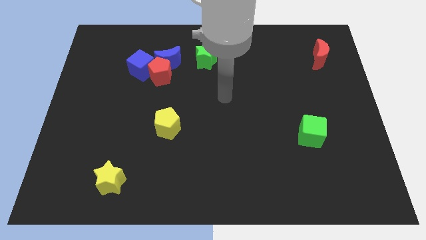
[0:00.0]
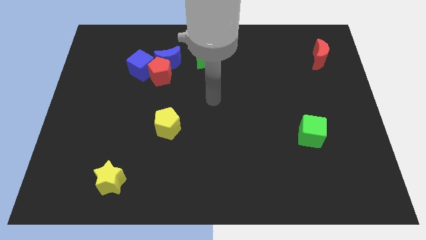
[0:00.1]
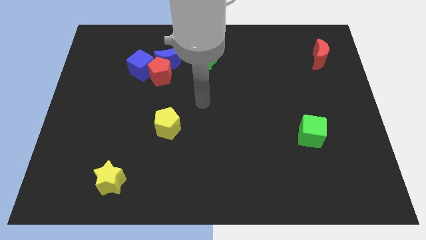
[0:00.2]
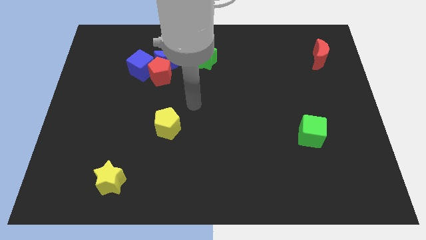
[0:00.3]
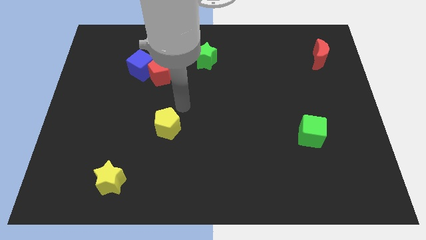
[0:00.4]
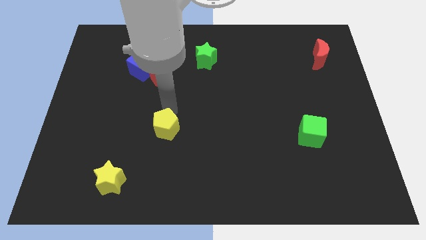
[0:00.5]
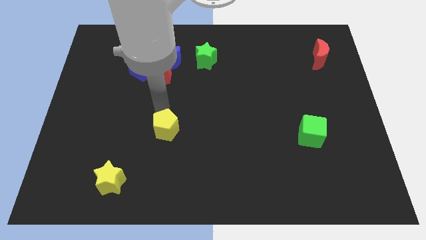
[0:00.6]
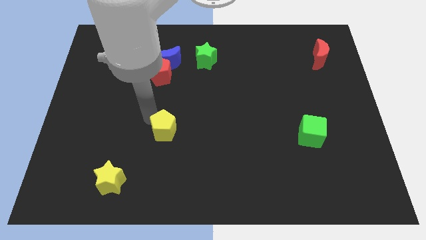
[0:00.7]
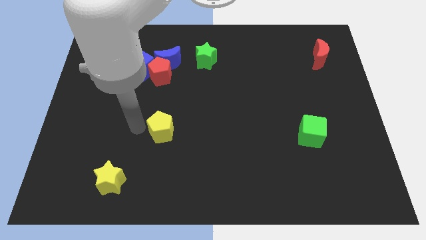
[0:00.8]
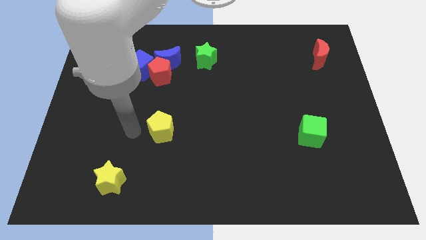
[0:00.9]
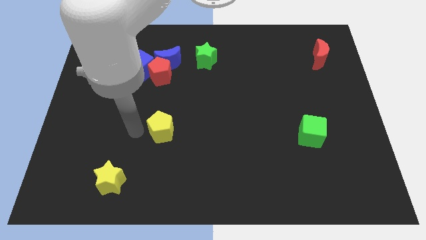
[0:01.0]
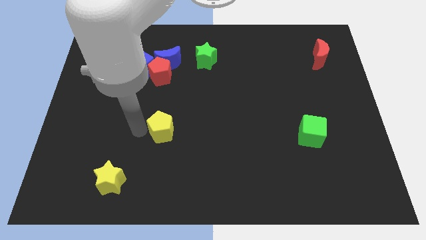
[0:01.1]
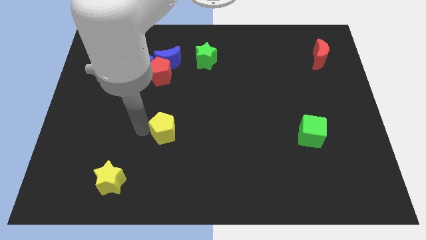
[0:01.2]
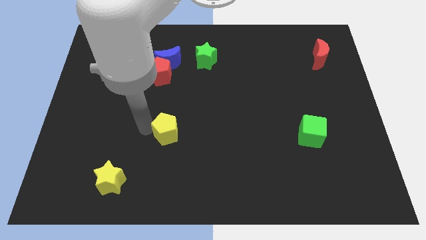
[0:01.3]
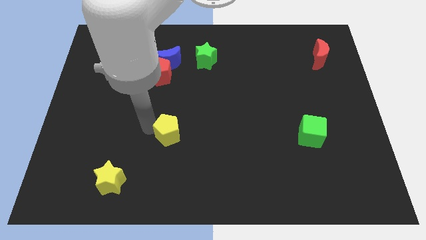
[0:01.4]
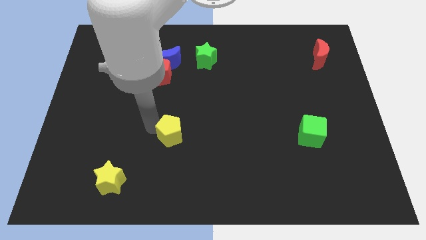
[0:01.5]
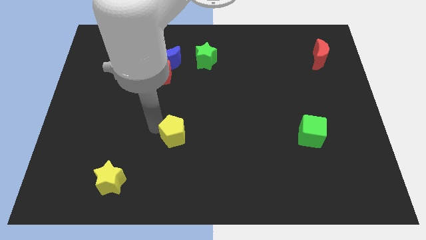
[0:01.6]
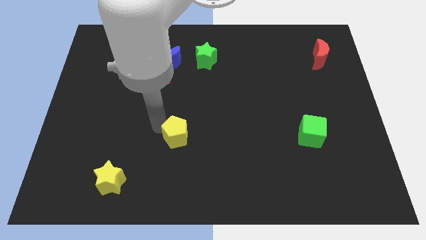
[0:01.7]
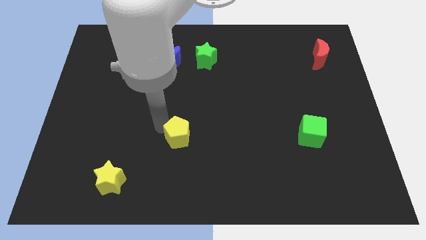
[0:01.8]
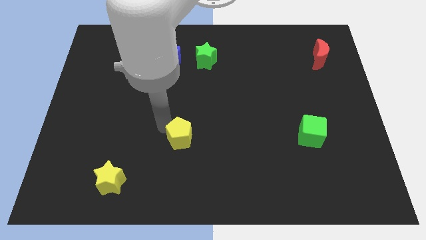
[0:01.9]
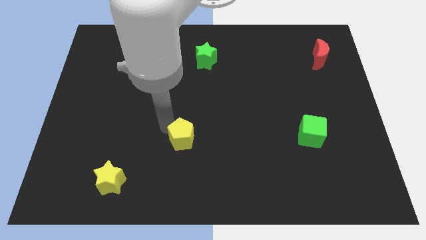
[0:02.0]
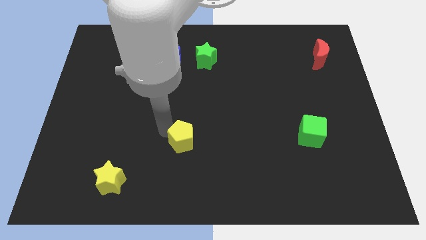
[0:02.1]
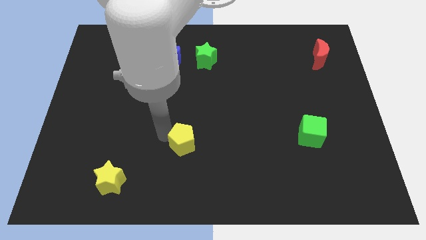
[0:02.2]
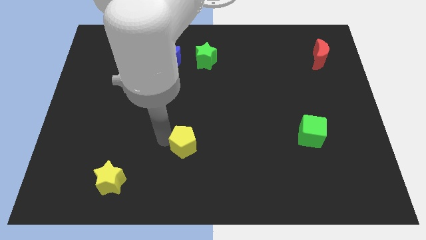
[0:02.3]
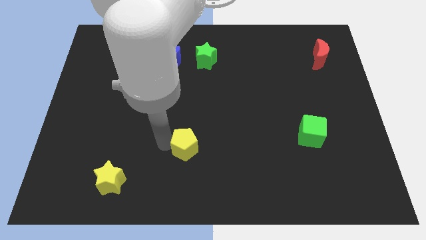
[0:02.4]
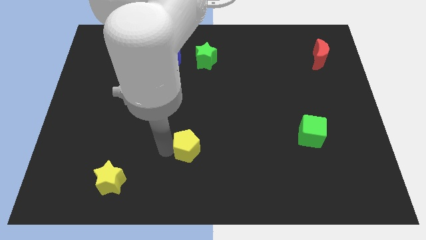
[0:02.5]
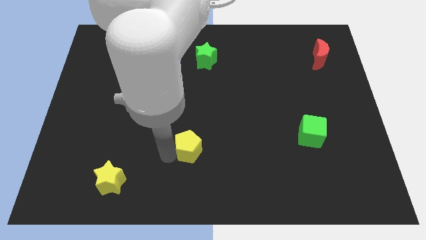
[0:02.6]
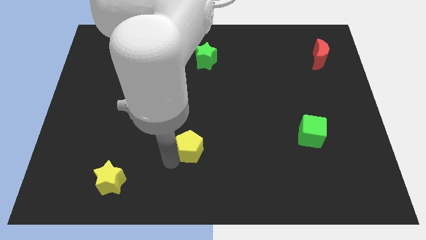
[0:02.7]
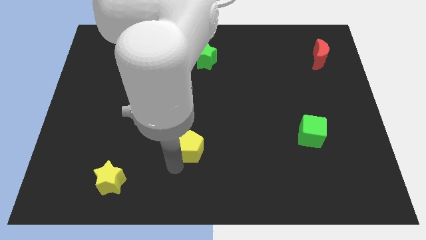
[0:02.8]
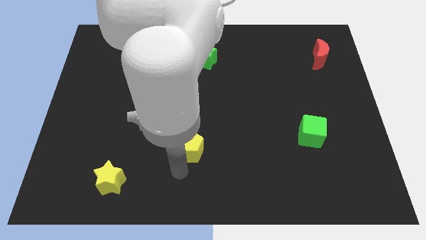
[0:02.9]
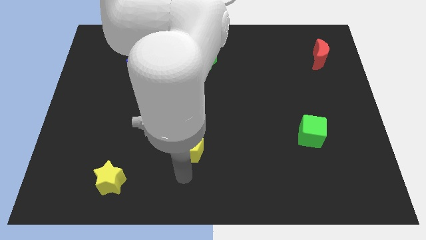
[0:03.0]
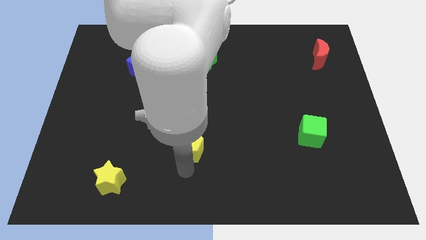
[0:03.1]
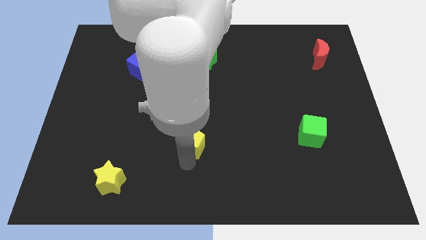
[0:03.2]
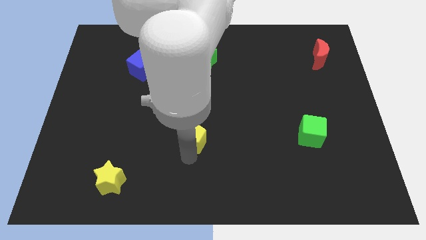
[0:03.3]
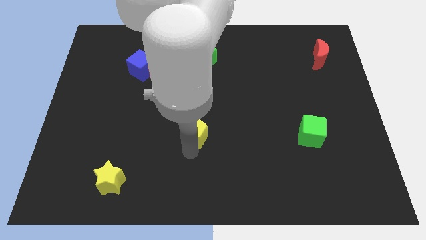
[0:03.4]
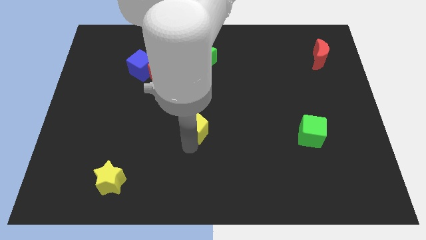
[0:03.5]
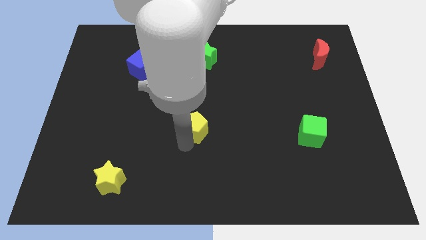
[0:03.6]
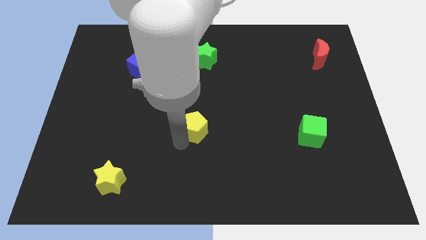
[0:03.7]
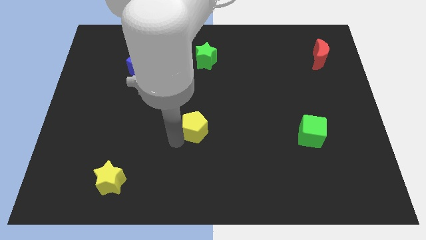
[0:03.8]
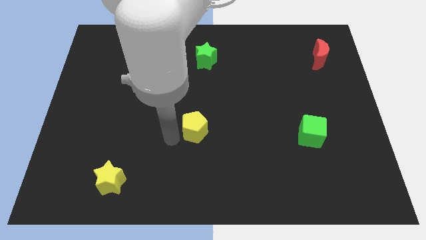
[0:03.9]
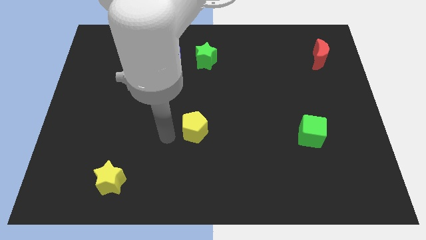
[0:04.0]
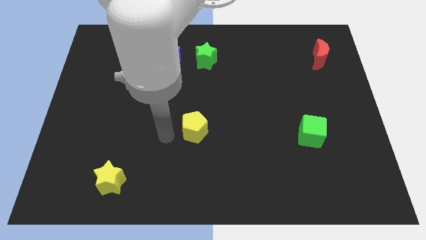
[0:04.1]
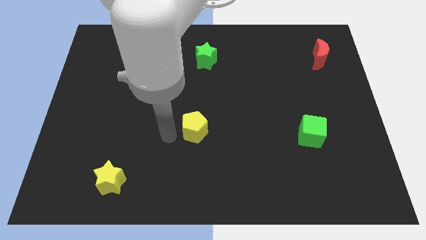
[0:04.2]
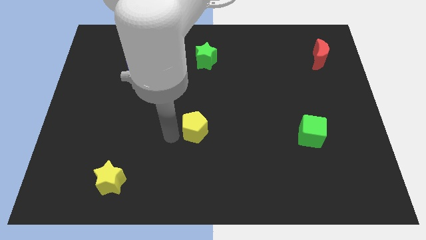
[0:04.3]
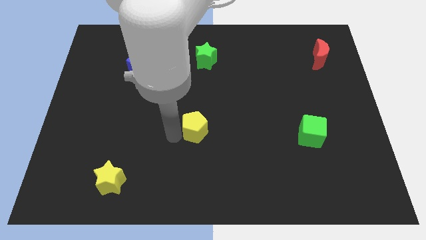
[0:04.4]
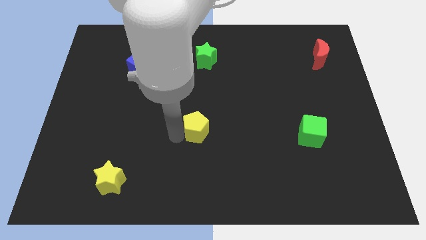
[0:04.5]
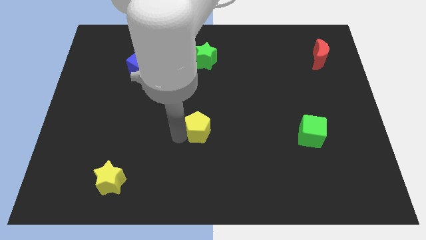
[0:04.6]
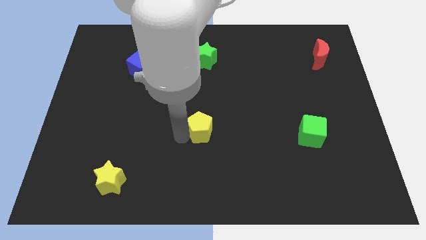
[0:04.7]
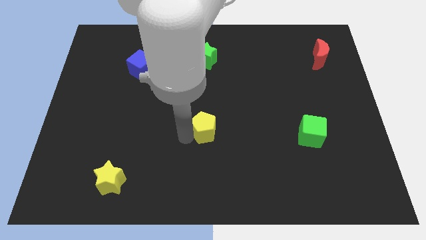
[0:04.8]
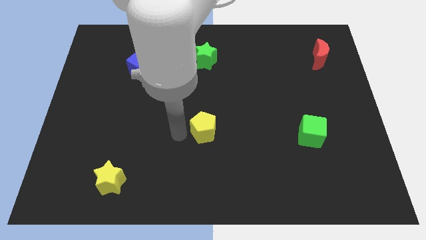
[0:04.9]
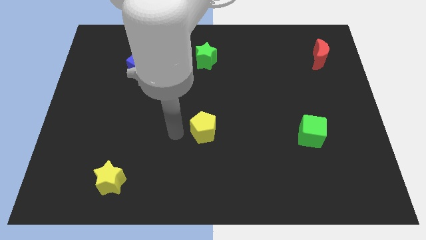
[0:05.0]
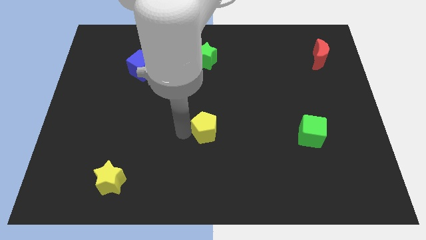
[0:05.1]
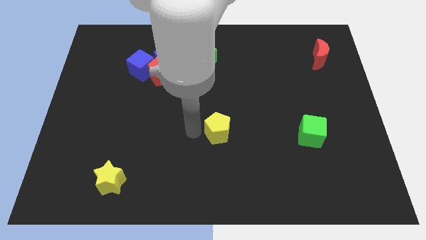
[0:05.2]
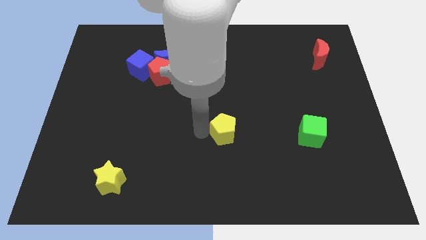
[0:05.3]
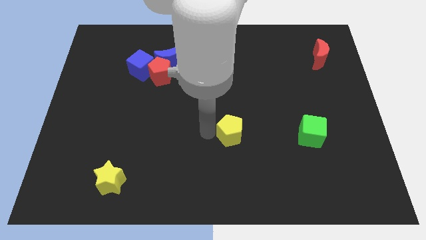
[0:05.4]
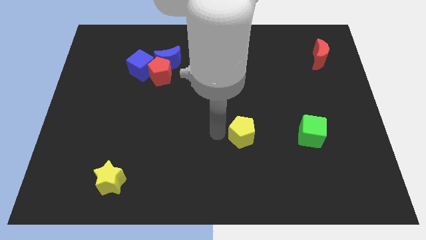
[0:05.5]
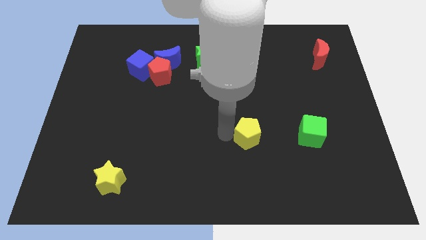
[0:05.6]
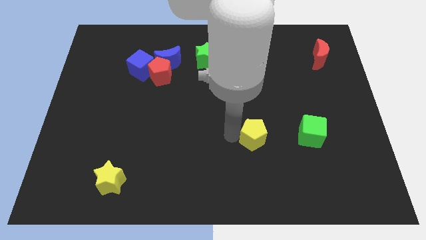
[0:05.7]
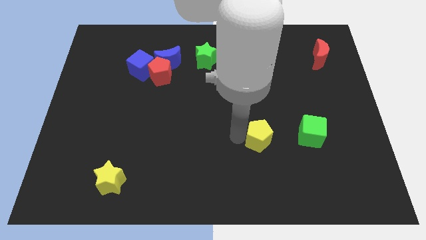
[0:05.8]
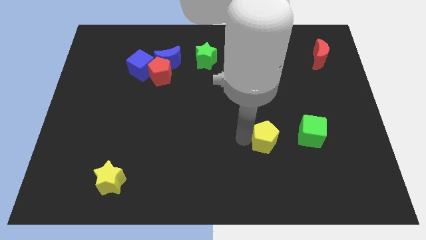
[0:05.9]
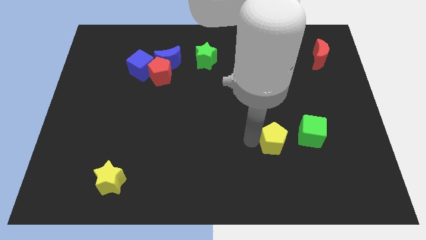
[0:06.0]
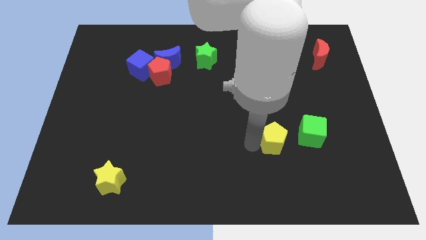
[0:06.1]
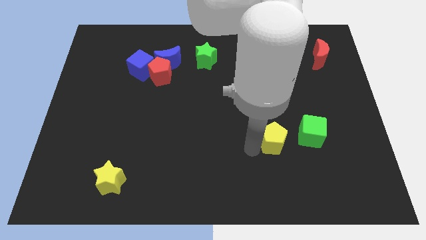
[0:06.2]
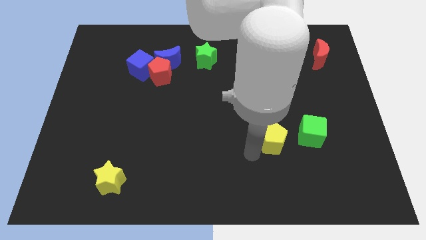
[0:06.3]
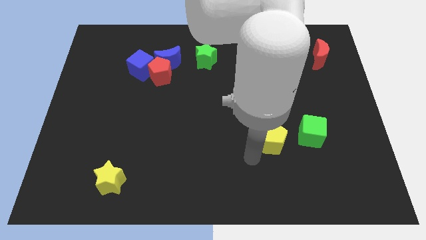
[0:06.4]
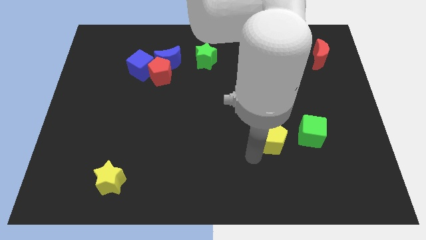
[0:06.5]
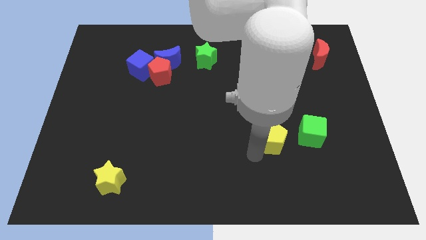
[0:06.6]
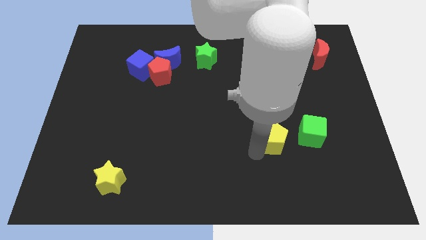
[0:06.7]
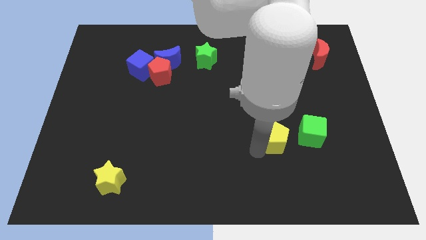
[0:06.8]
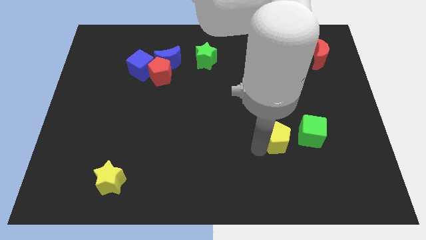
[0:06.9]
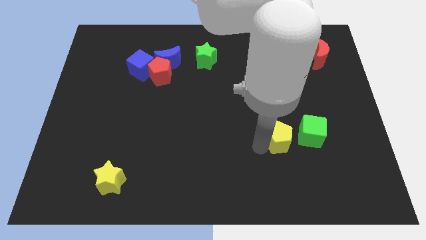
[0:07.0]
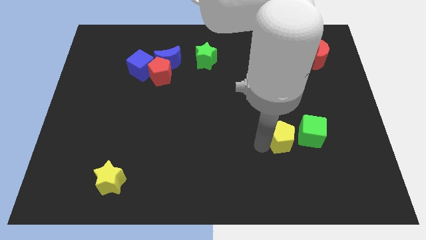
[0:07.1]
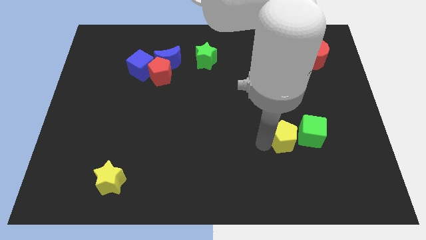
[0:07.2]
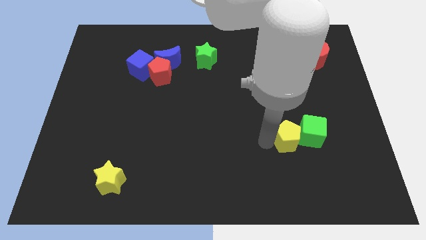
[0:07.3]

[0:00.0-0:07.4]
push the yellow pentagon towards the green cube

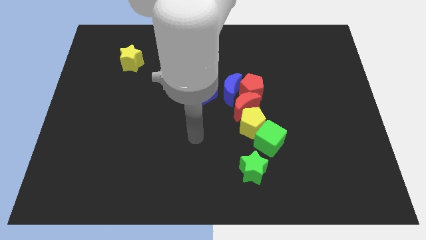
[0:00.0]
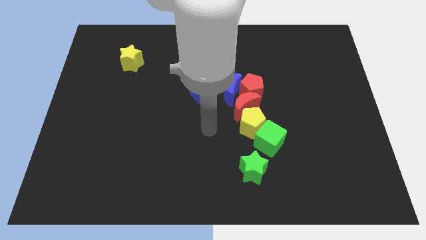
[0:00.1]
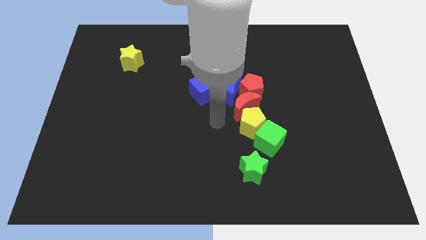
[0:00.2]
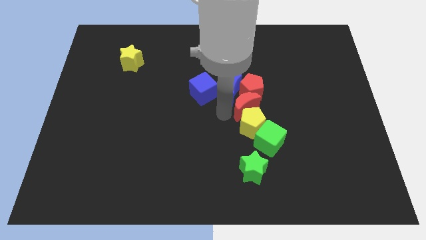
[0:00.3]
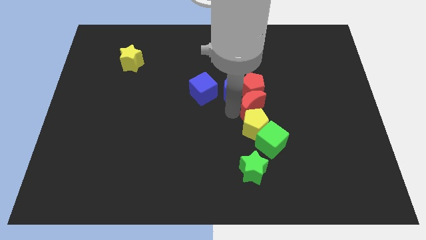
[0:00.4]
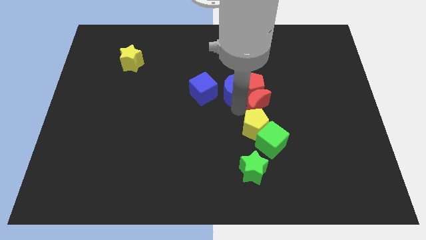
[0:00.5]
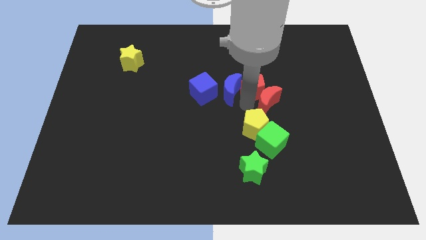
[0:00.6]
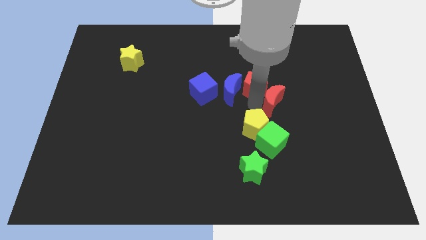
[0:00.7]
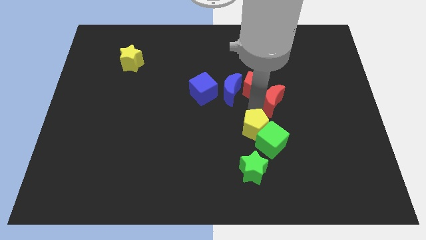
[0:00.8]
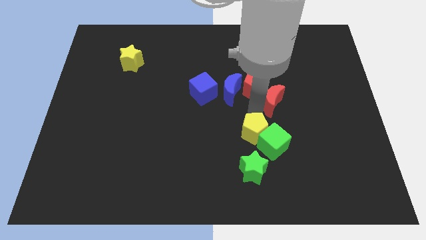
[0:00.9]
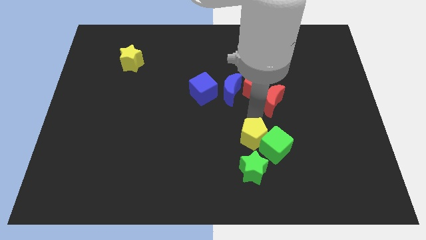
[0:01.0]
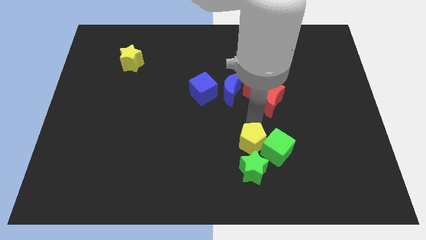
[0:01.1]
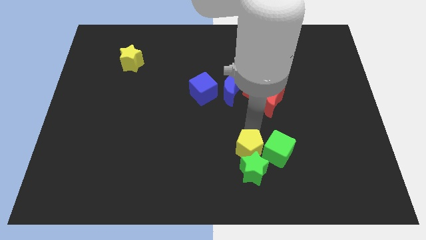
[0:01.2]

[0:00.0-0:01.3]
move the yellow pentagon to the green star
